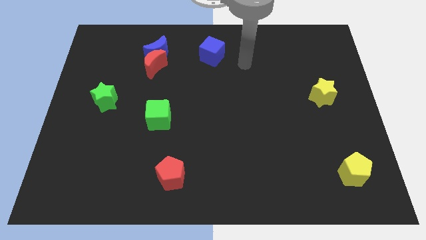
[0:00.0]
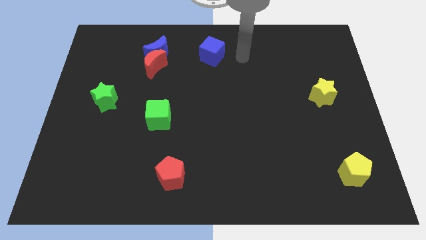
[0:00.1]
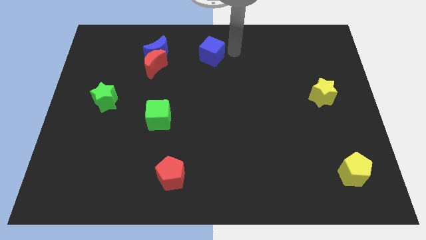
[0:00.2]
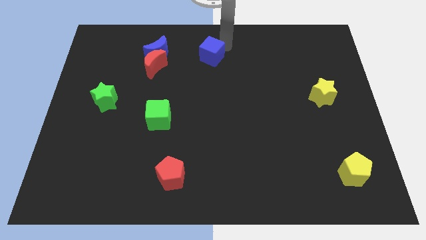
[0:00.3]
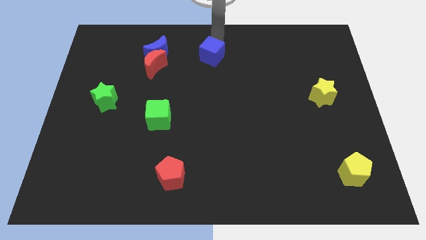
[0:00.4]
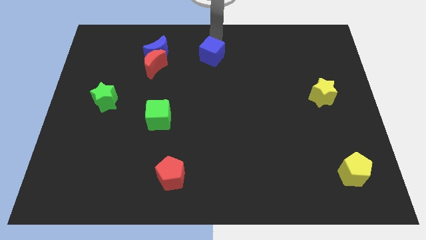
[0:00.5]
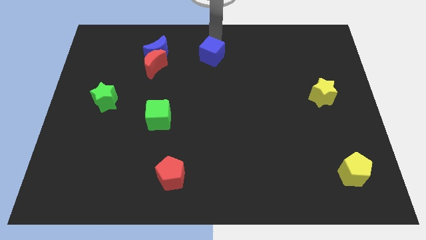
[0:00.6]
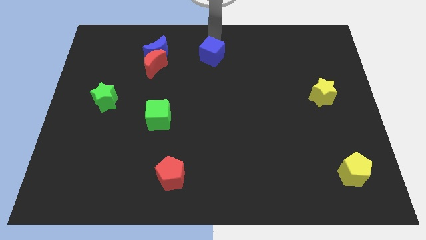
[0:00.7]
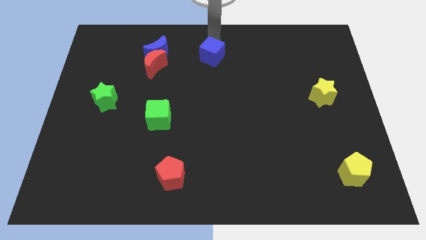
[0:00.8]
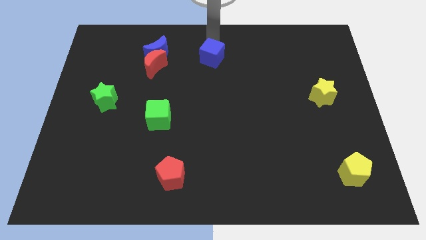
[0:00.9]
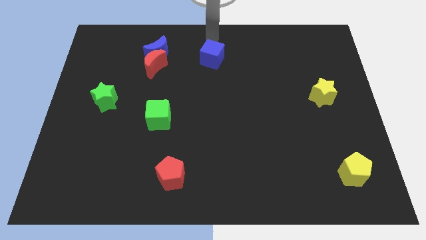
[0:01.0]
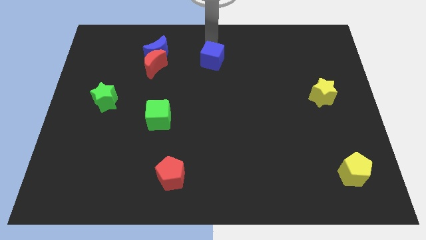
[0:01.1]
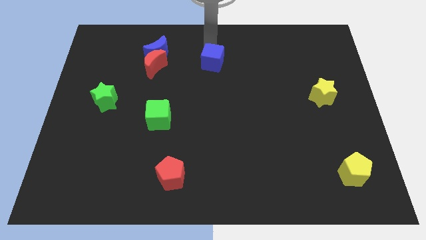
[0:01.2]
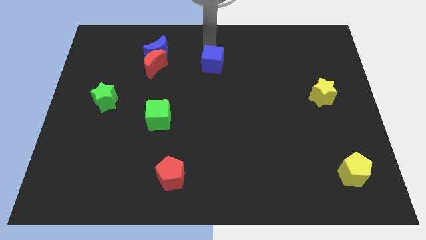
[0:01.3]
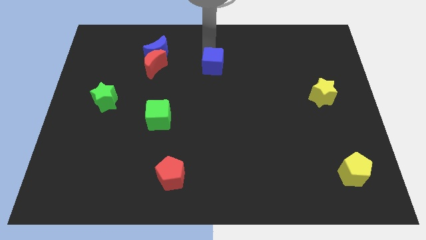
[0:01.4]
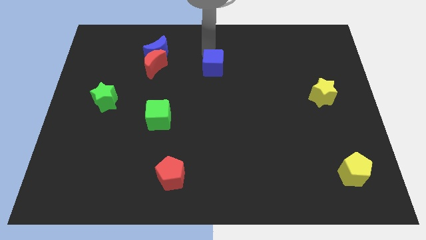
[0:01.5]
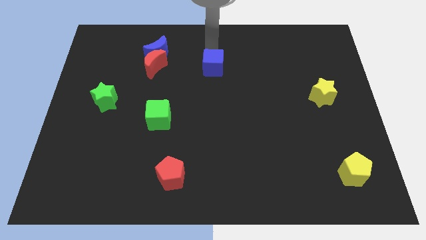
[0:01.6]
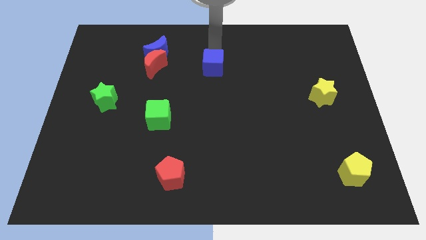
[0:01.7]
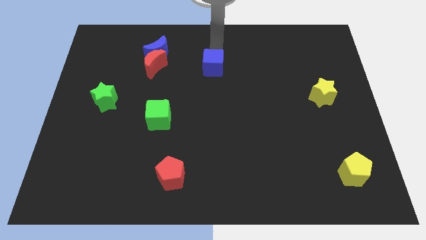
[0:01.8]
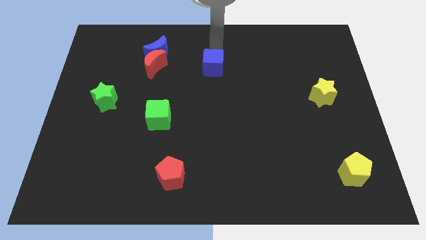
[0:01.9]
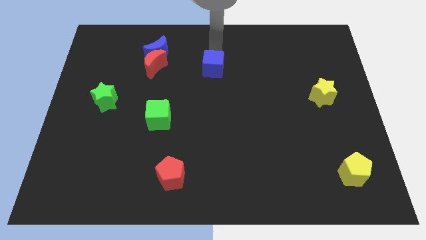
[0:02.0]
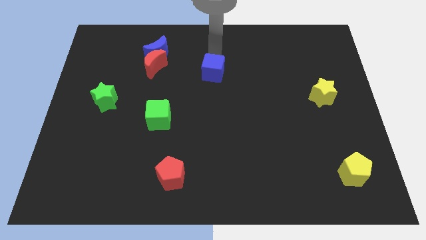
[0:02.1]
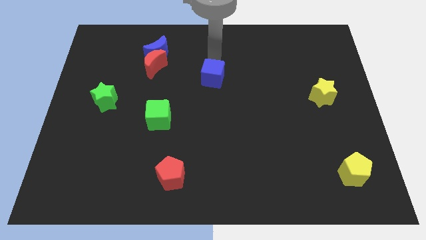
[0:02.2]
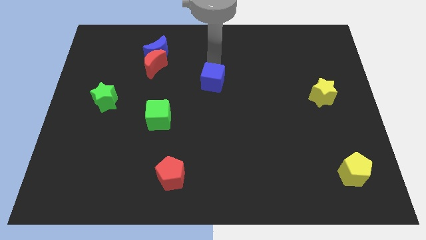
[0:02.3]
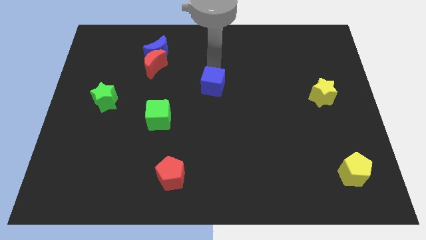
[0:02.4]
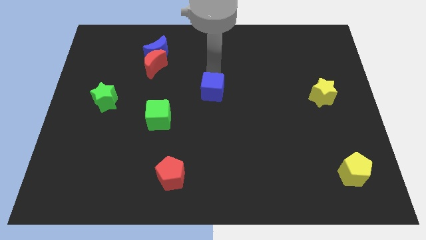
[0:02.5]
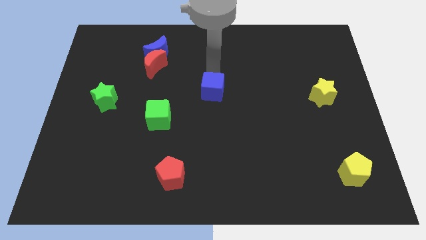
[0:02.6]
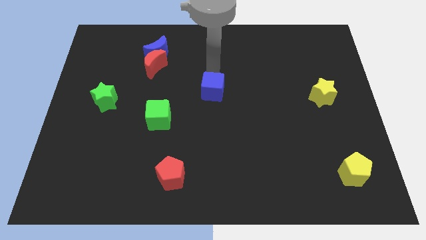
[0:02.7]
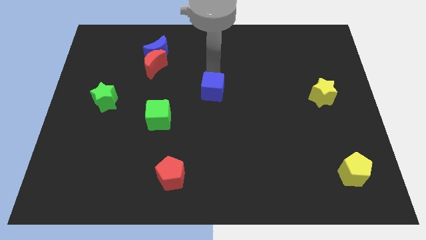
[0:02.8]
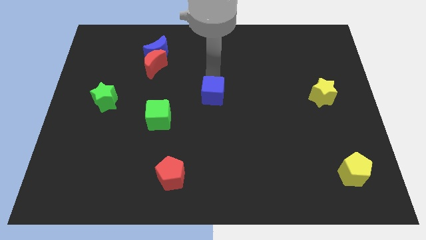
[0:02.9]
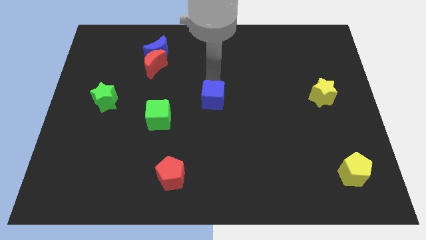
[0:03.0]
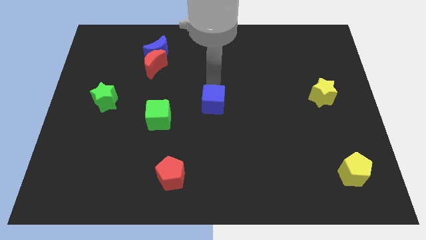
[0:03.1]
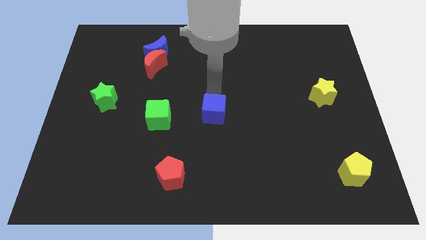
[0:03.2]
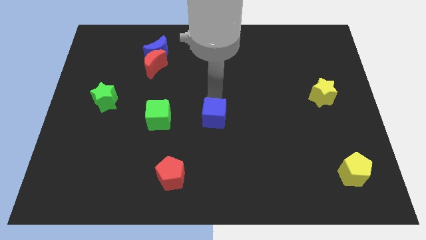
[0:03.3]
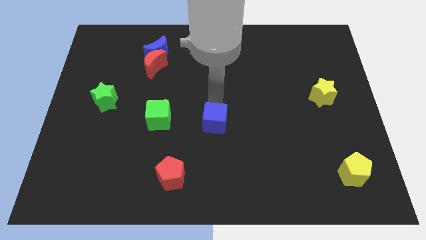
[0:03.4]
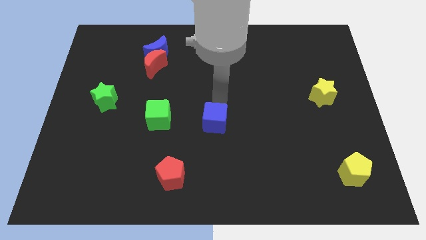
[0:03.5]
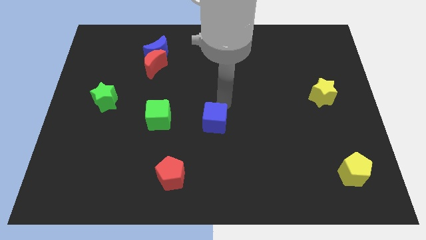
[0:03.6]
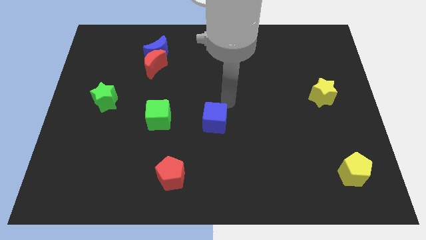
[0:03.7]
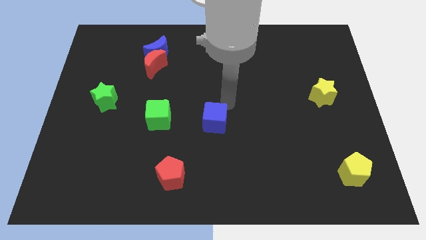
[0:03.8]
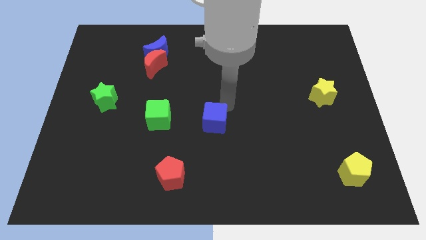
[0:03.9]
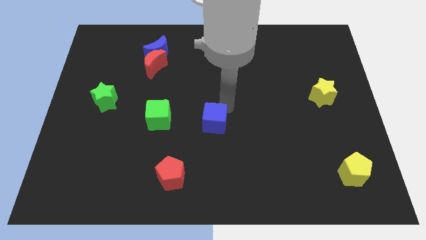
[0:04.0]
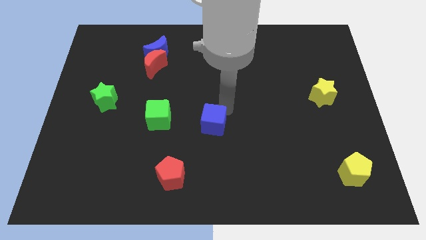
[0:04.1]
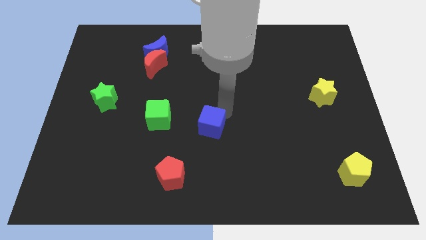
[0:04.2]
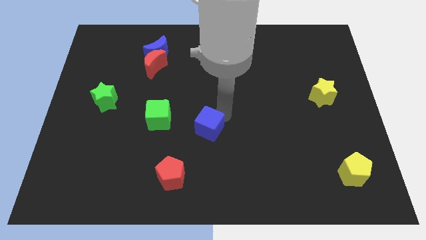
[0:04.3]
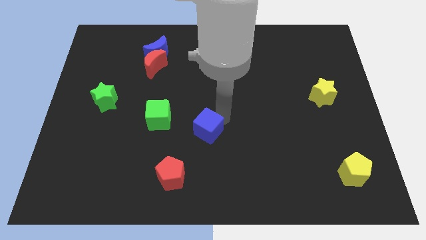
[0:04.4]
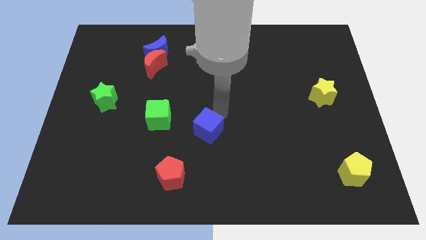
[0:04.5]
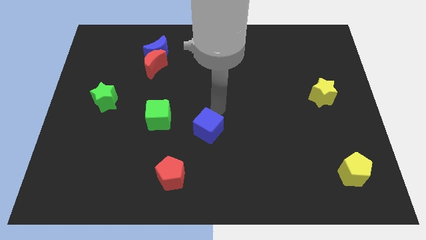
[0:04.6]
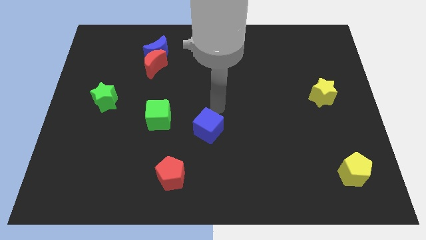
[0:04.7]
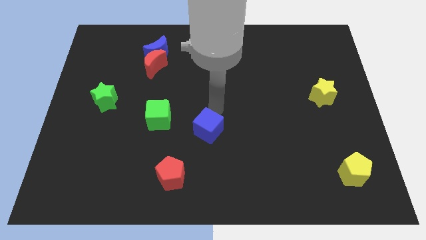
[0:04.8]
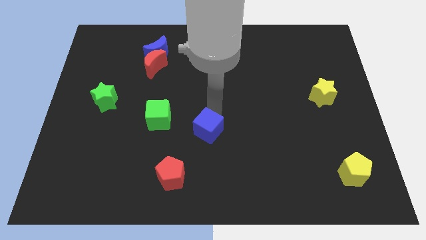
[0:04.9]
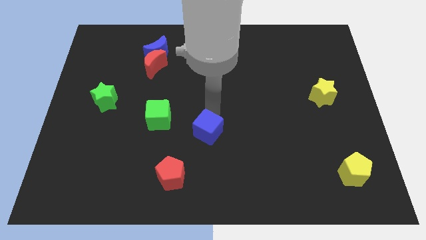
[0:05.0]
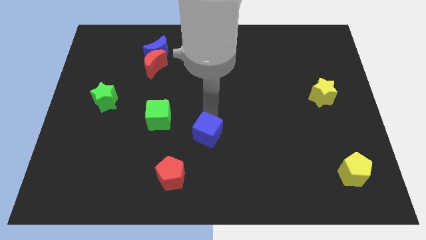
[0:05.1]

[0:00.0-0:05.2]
move the blue cube diagonally up and to the right of the red pentagon

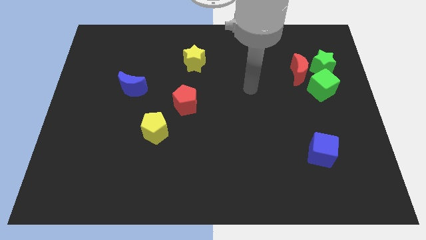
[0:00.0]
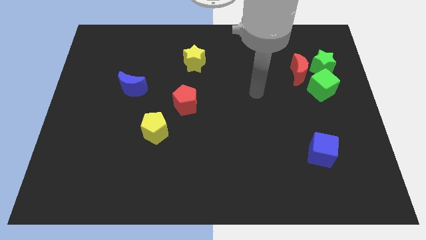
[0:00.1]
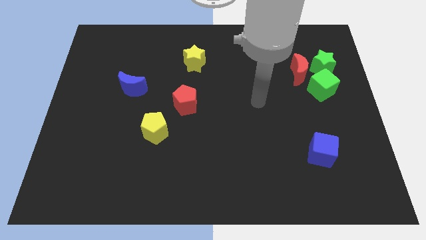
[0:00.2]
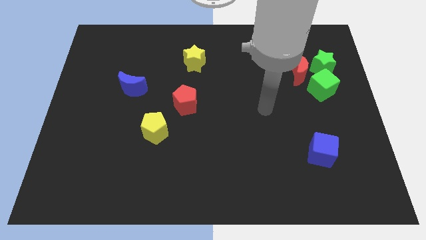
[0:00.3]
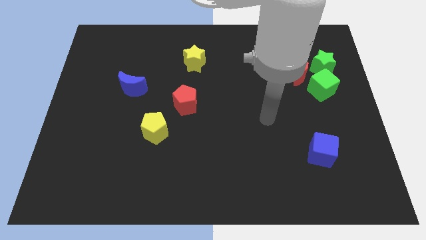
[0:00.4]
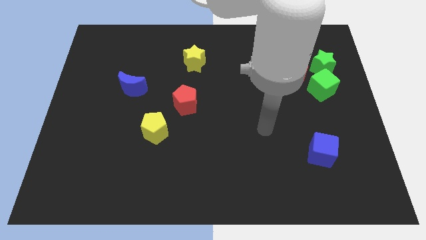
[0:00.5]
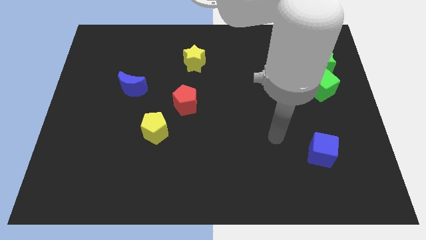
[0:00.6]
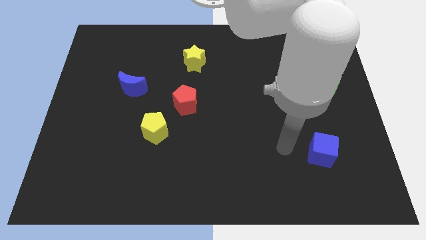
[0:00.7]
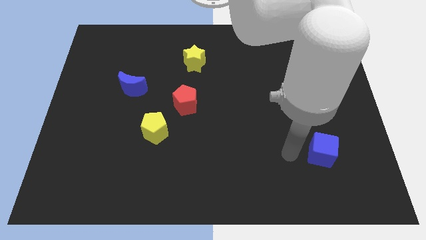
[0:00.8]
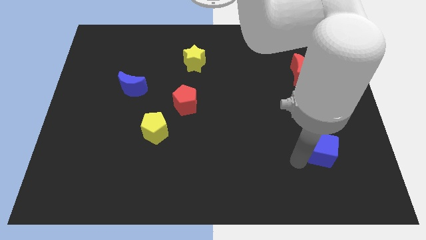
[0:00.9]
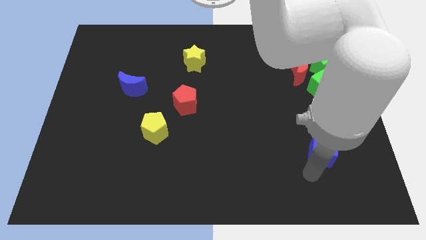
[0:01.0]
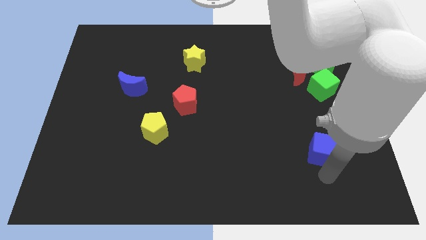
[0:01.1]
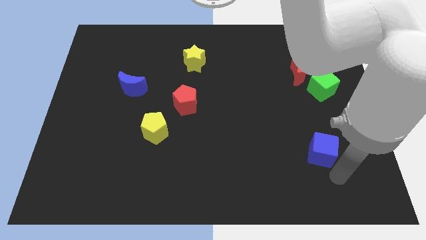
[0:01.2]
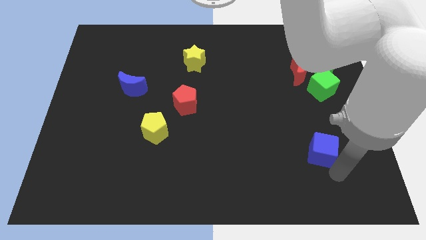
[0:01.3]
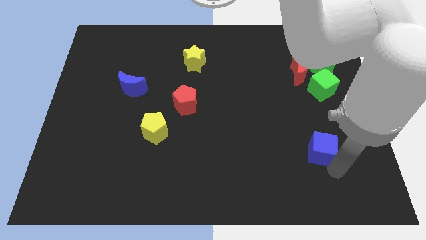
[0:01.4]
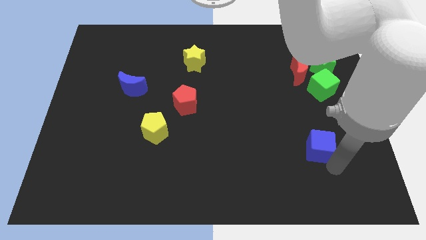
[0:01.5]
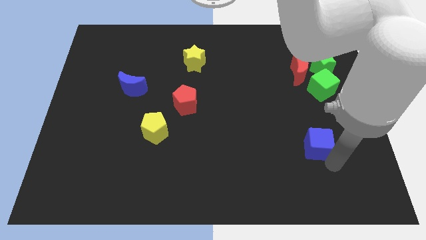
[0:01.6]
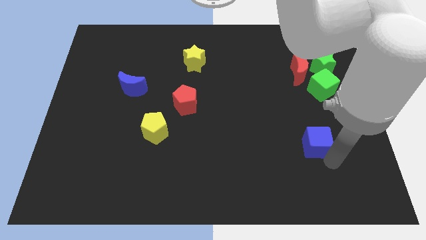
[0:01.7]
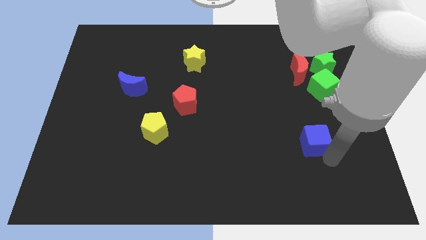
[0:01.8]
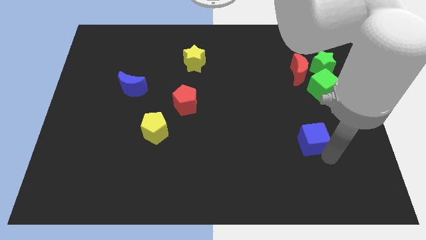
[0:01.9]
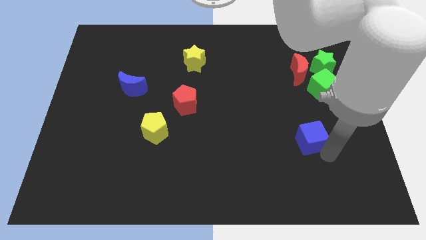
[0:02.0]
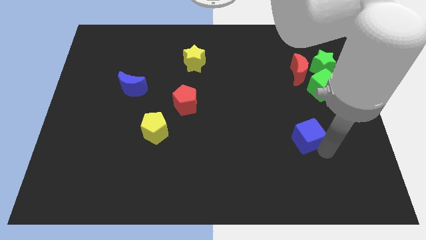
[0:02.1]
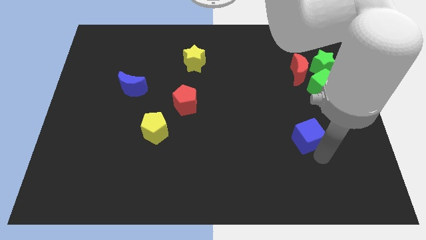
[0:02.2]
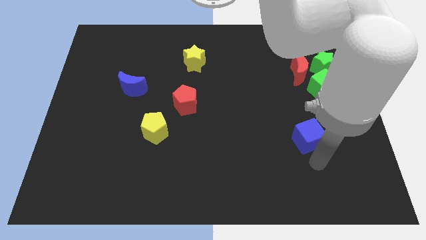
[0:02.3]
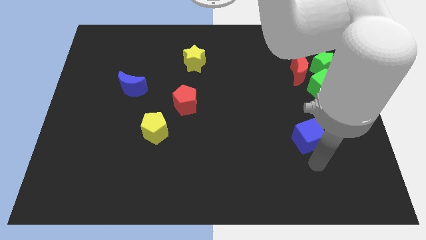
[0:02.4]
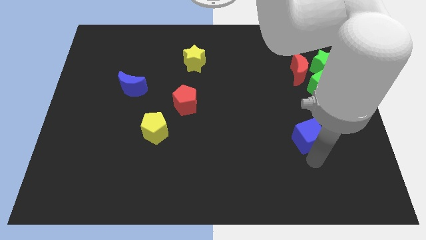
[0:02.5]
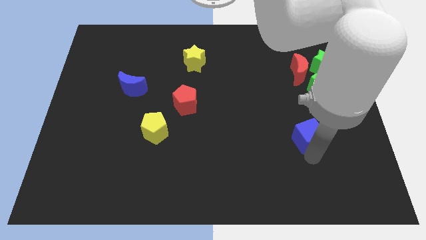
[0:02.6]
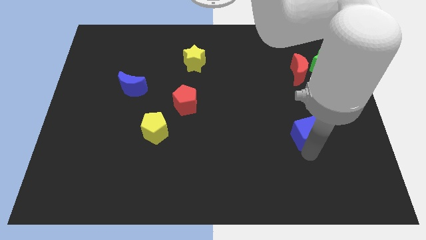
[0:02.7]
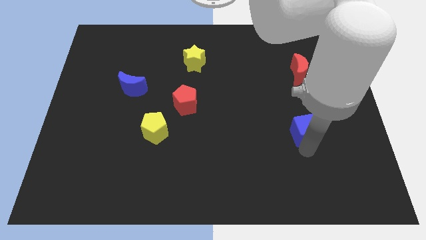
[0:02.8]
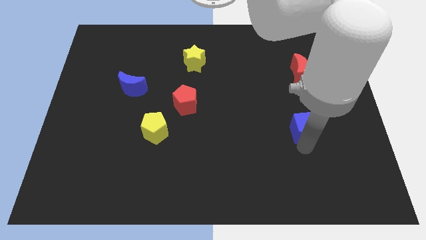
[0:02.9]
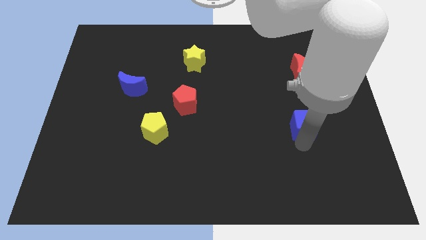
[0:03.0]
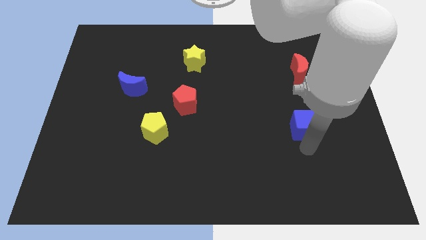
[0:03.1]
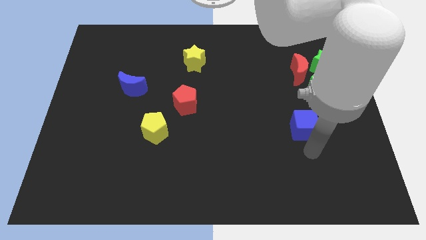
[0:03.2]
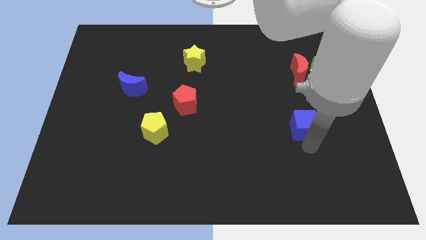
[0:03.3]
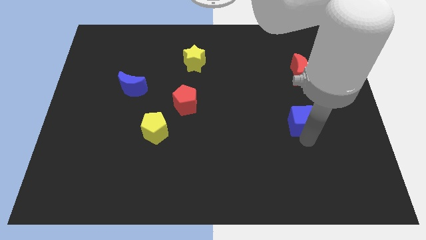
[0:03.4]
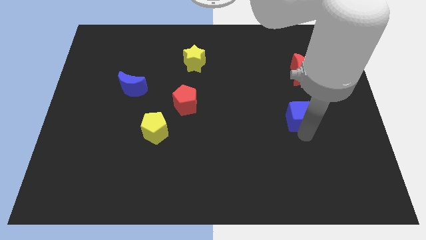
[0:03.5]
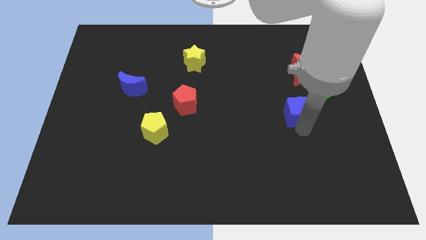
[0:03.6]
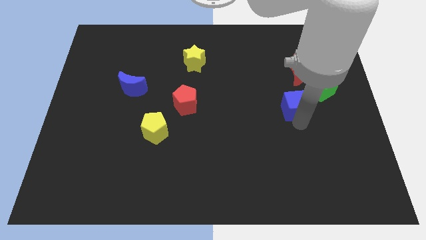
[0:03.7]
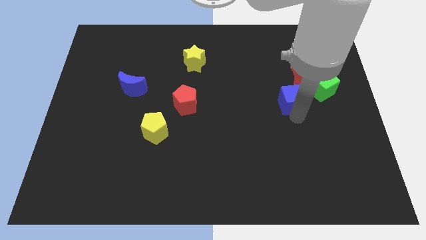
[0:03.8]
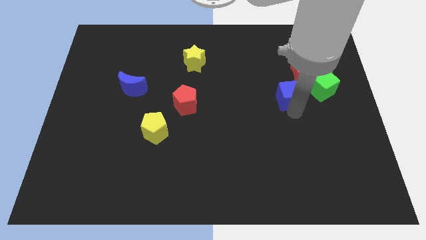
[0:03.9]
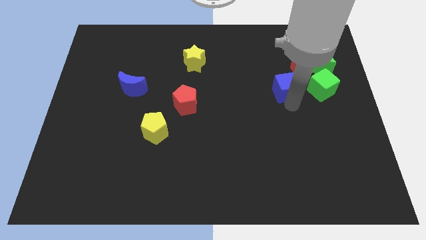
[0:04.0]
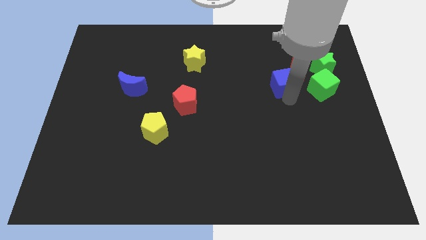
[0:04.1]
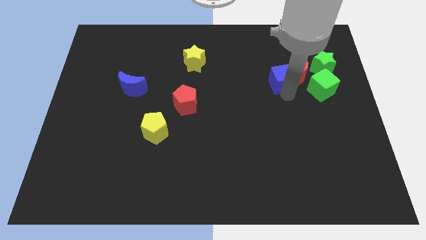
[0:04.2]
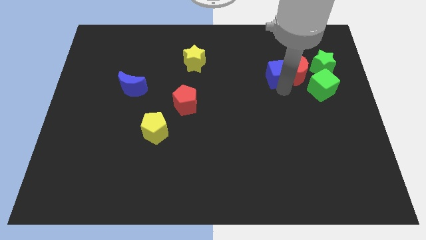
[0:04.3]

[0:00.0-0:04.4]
slide the blue cube to the top left of the green cube
